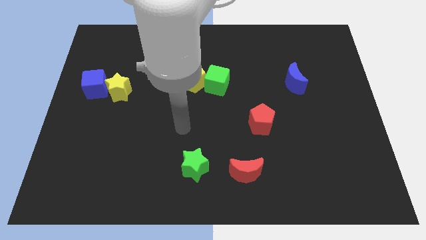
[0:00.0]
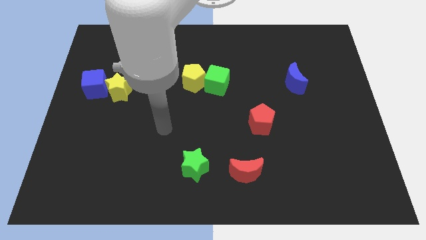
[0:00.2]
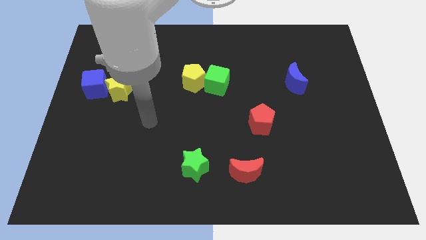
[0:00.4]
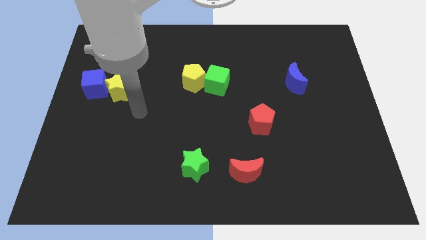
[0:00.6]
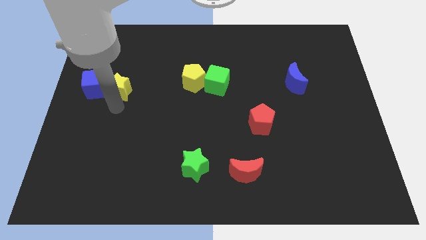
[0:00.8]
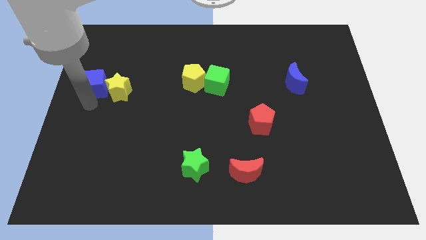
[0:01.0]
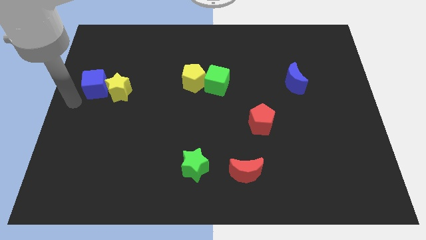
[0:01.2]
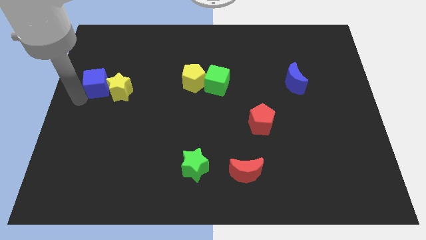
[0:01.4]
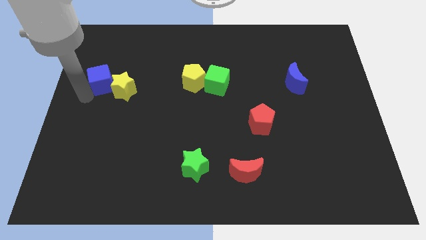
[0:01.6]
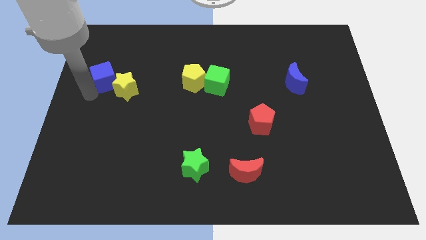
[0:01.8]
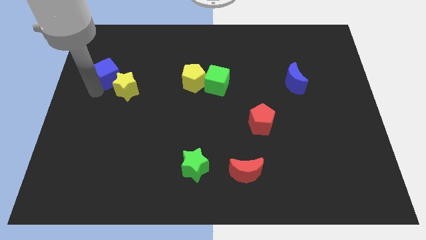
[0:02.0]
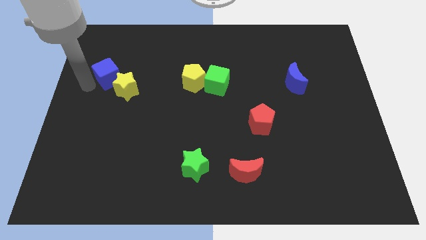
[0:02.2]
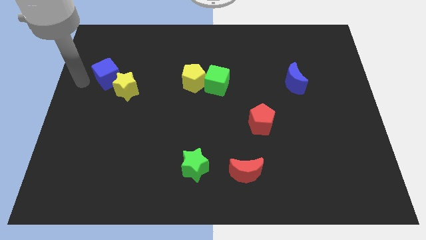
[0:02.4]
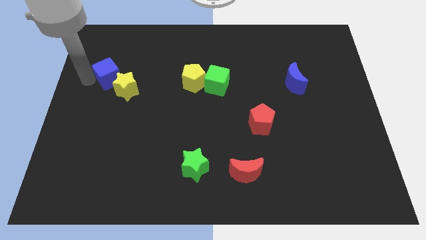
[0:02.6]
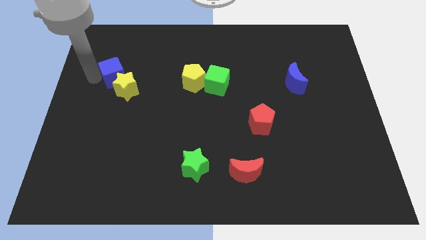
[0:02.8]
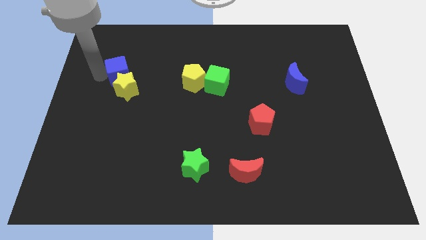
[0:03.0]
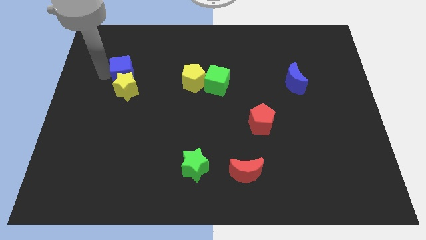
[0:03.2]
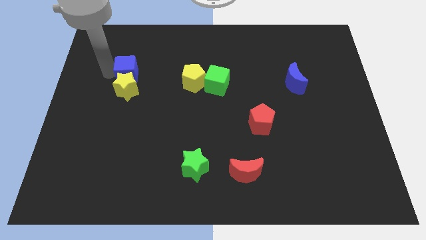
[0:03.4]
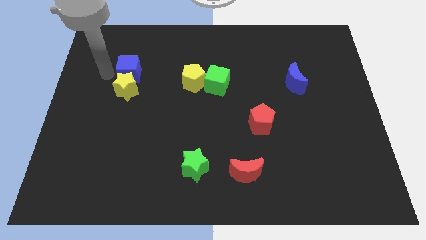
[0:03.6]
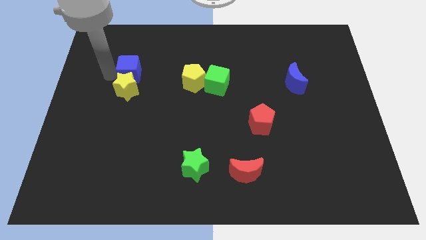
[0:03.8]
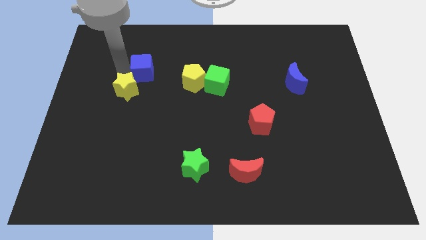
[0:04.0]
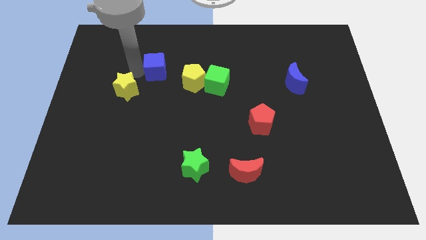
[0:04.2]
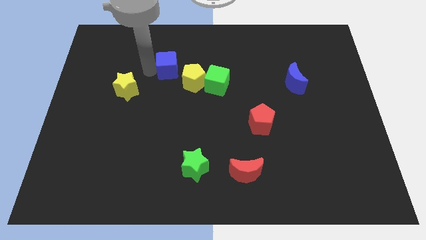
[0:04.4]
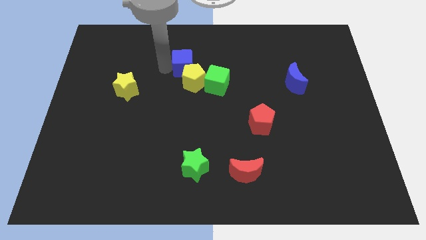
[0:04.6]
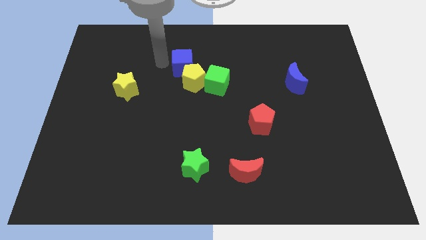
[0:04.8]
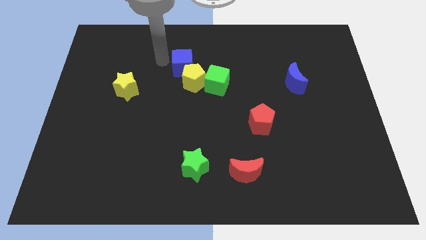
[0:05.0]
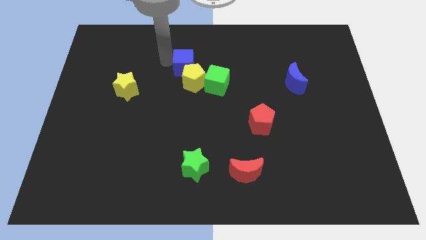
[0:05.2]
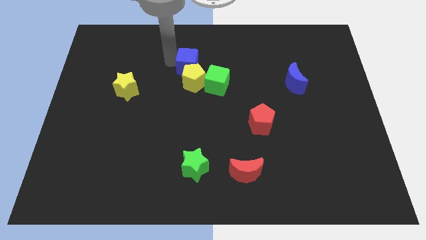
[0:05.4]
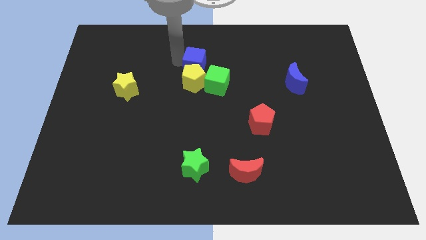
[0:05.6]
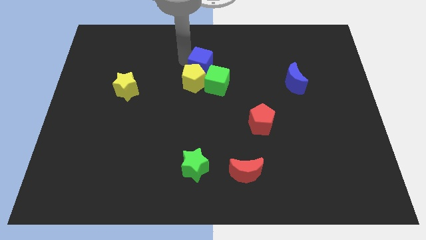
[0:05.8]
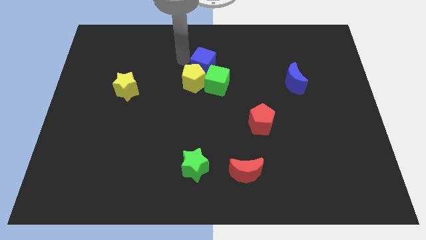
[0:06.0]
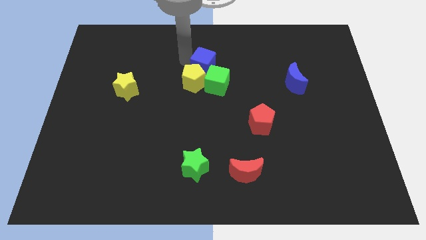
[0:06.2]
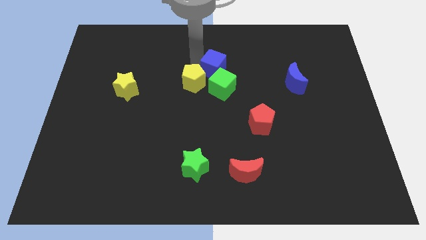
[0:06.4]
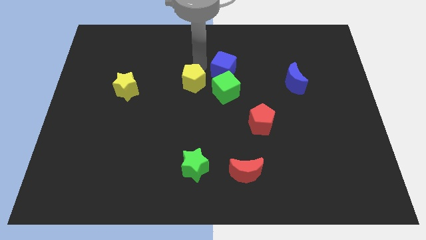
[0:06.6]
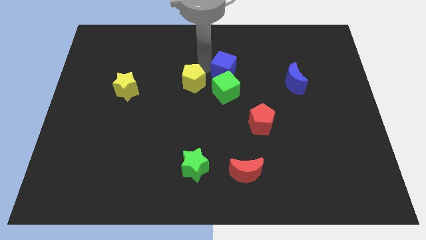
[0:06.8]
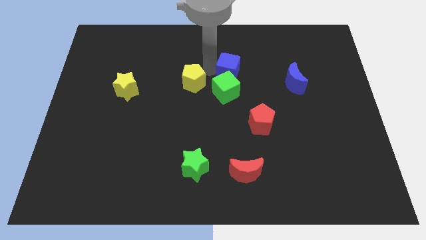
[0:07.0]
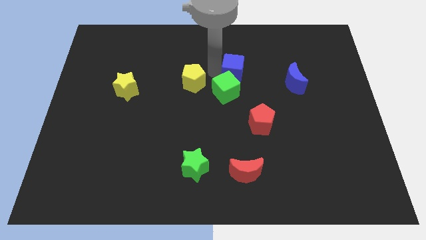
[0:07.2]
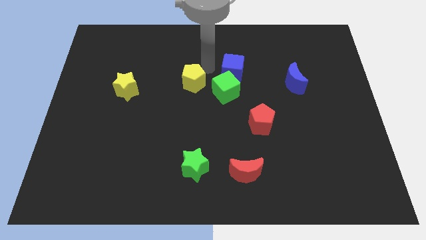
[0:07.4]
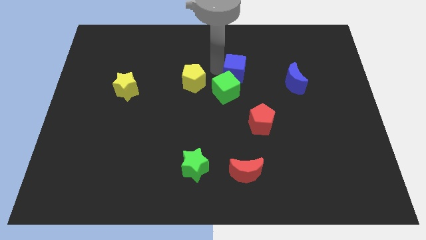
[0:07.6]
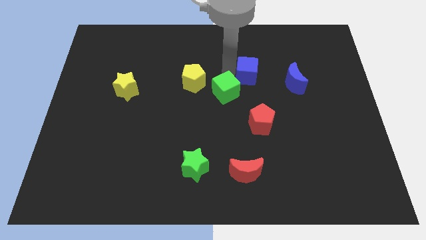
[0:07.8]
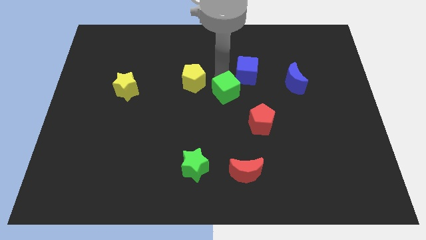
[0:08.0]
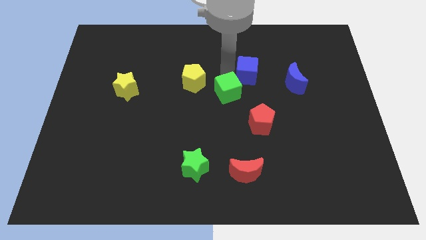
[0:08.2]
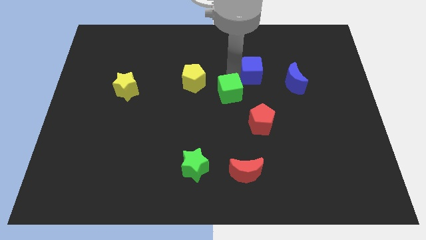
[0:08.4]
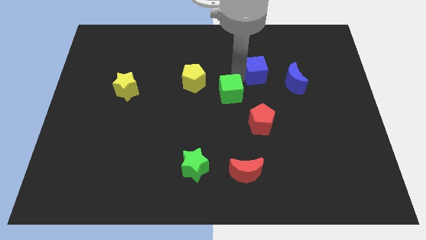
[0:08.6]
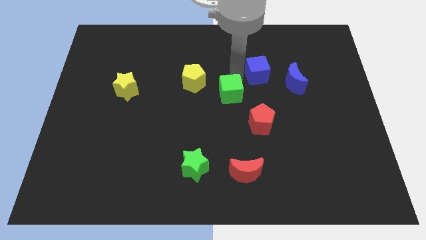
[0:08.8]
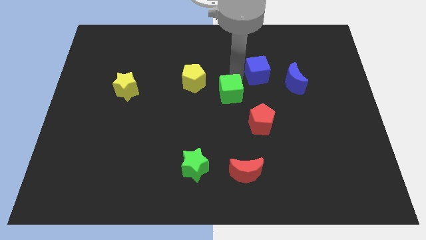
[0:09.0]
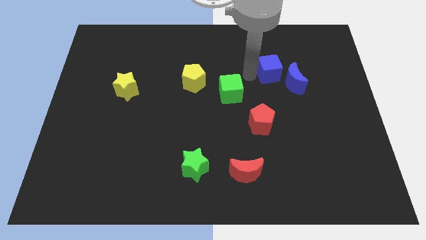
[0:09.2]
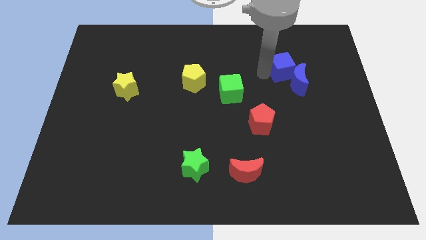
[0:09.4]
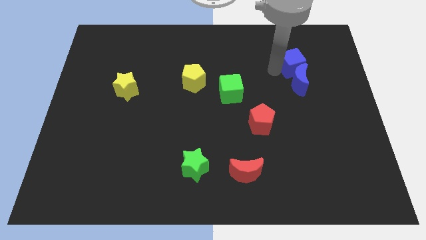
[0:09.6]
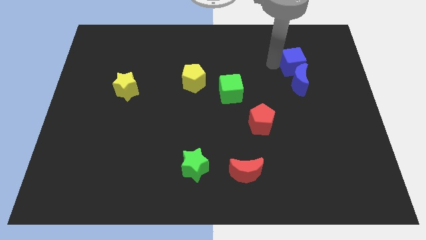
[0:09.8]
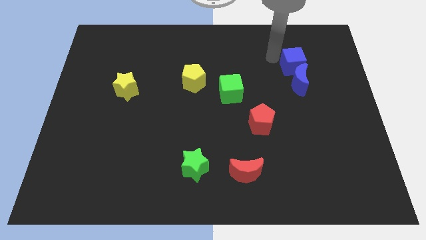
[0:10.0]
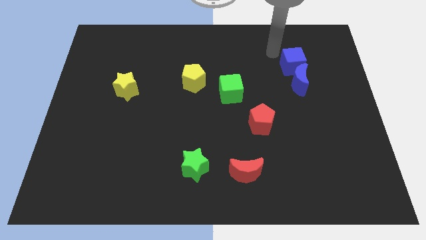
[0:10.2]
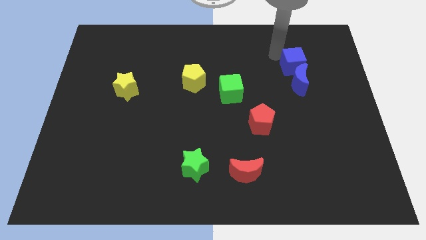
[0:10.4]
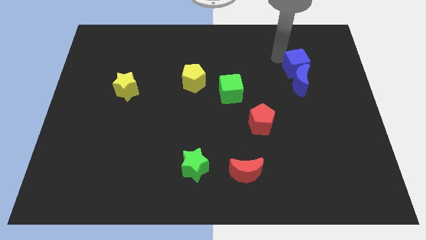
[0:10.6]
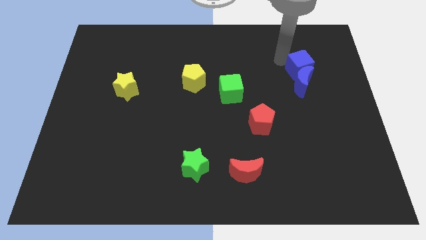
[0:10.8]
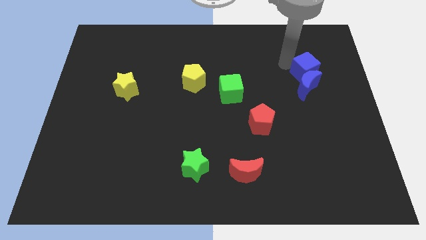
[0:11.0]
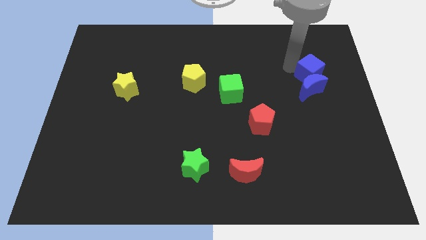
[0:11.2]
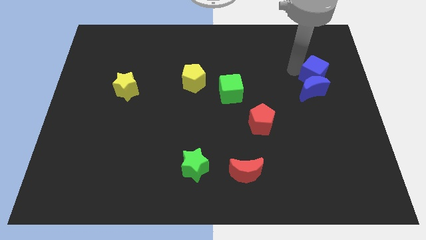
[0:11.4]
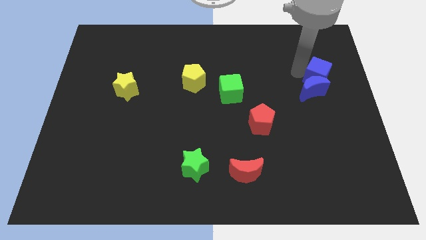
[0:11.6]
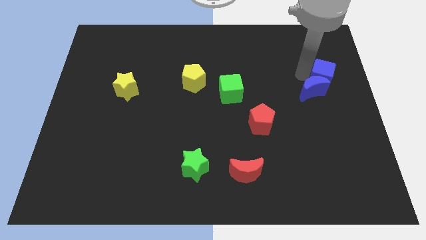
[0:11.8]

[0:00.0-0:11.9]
slide the blue cube to the center right
